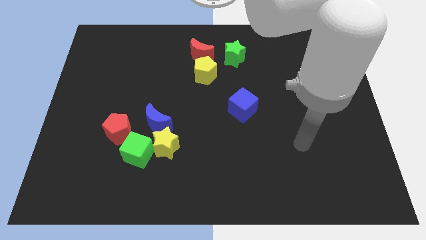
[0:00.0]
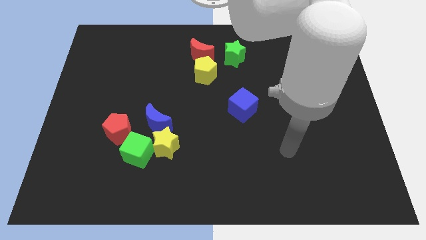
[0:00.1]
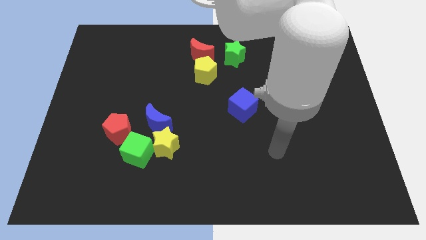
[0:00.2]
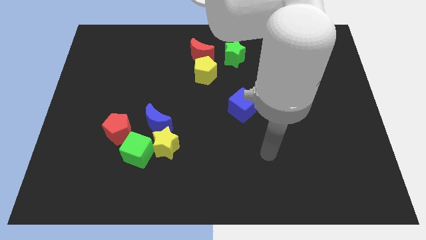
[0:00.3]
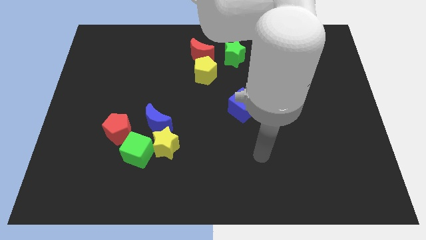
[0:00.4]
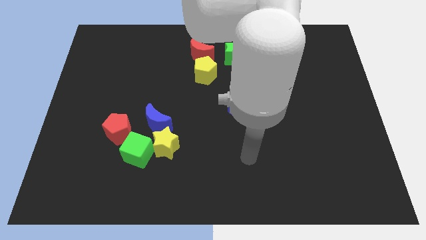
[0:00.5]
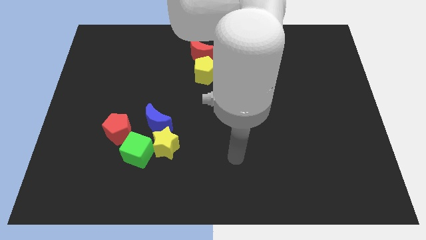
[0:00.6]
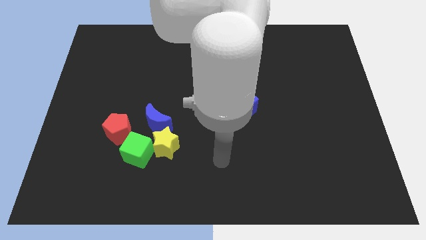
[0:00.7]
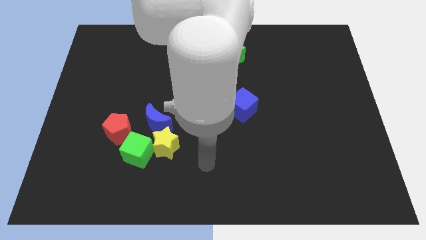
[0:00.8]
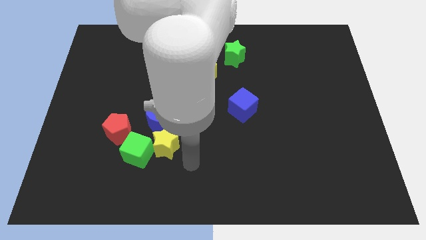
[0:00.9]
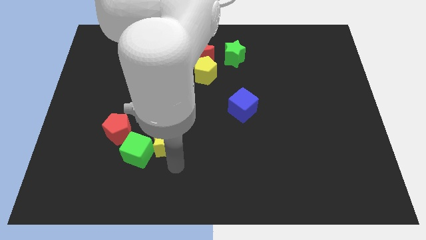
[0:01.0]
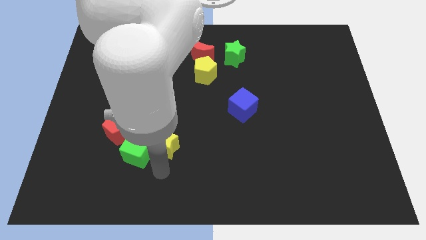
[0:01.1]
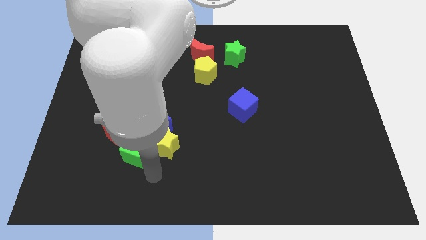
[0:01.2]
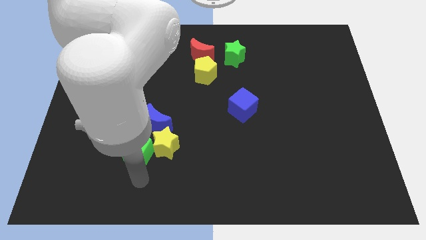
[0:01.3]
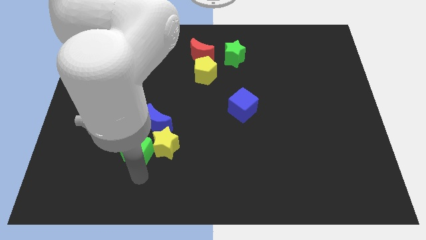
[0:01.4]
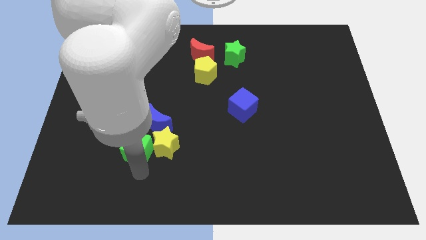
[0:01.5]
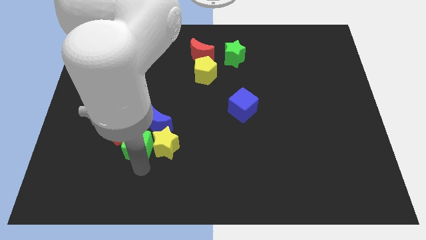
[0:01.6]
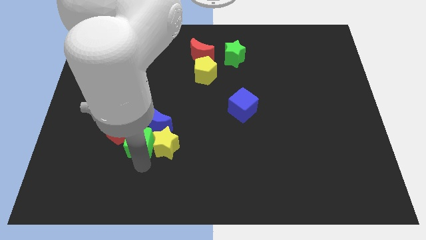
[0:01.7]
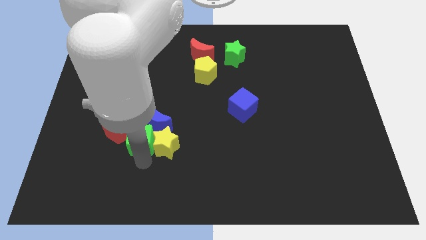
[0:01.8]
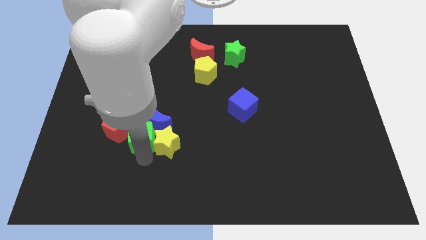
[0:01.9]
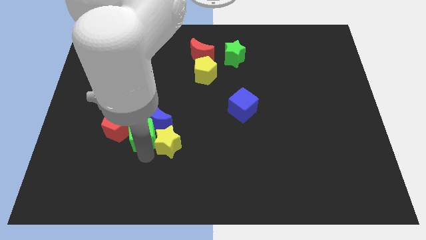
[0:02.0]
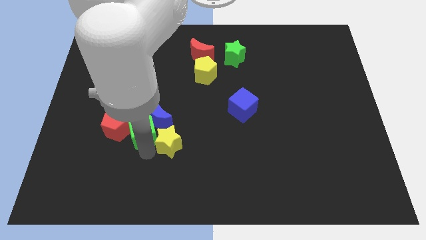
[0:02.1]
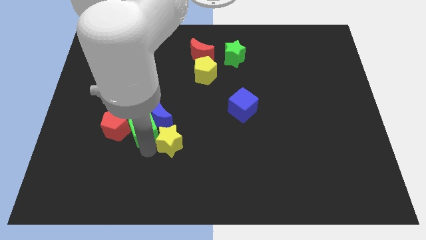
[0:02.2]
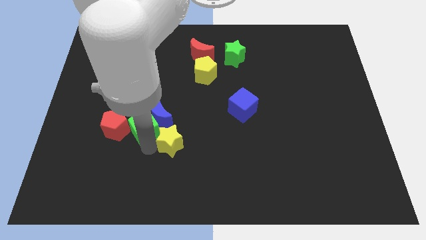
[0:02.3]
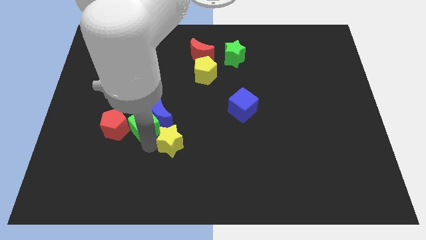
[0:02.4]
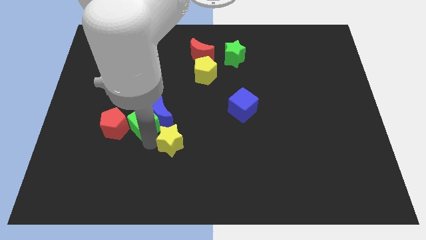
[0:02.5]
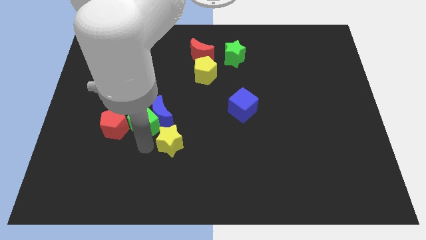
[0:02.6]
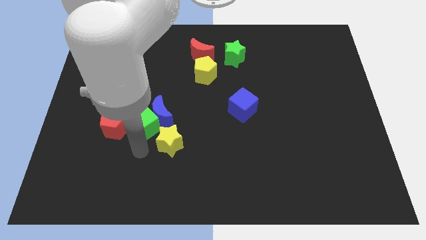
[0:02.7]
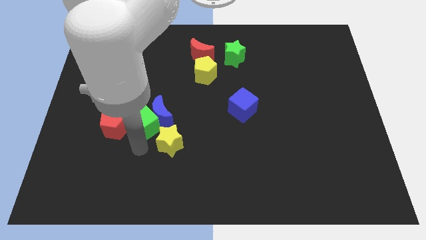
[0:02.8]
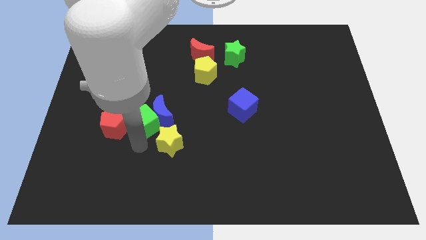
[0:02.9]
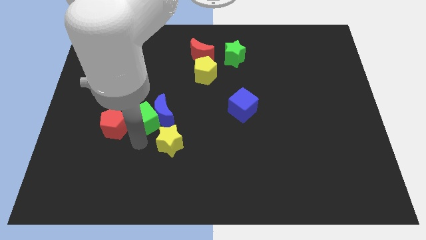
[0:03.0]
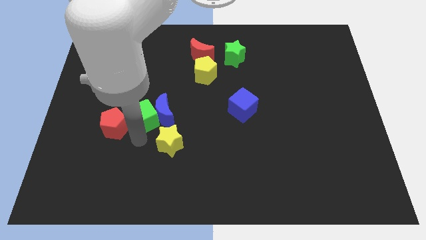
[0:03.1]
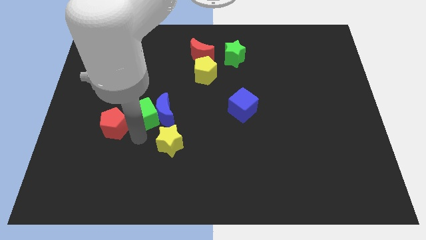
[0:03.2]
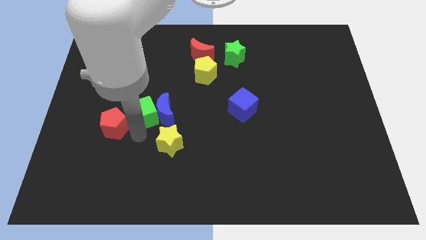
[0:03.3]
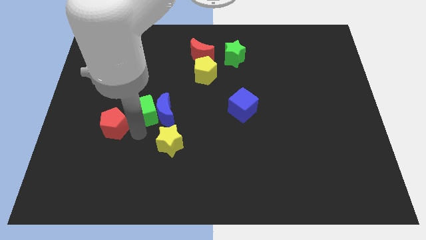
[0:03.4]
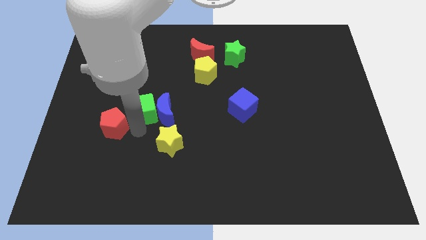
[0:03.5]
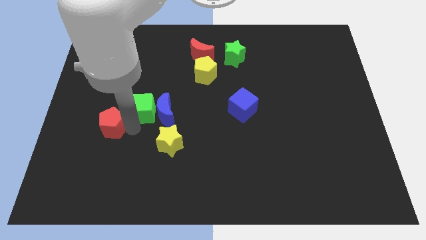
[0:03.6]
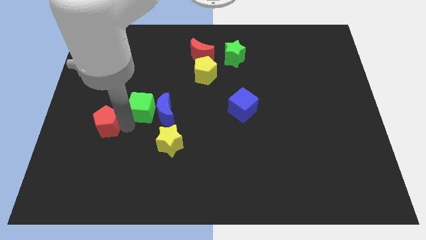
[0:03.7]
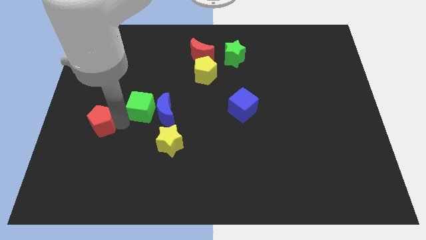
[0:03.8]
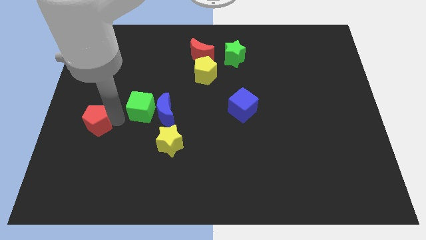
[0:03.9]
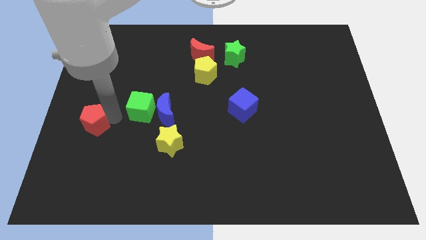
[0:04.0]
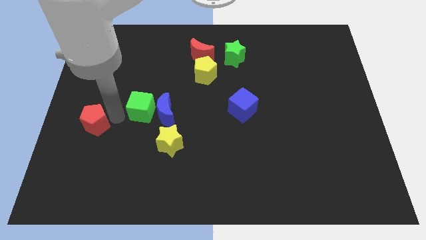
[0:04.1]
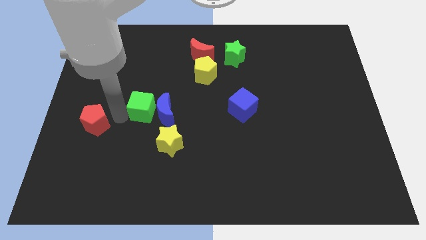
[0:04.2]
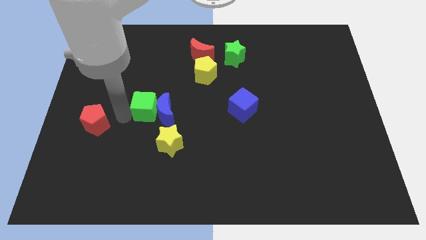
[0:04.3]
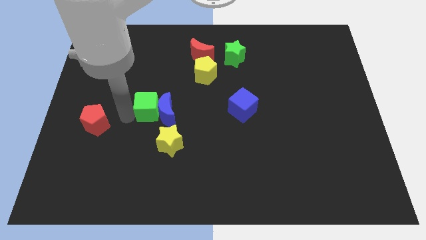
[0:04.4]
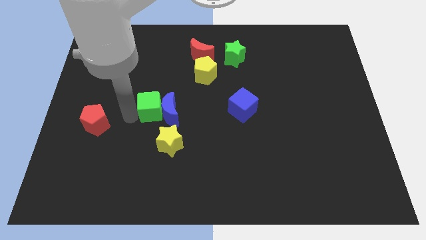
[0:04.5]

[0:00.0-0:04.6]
slightly push the green cube up and then to the right

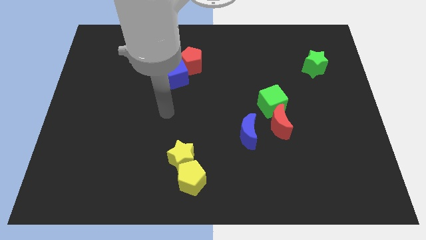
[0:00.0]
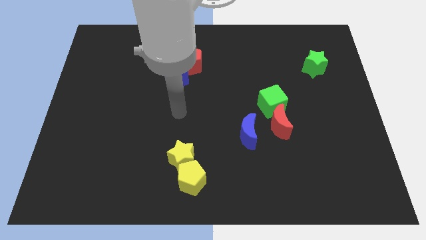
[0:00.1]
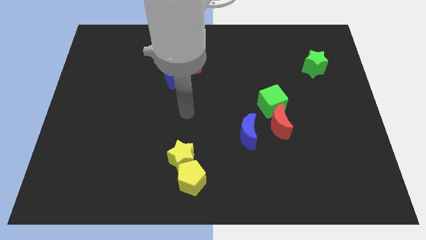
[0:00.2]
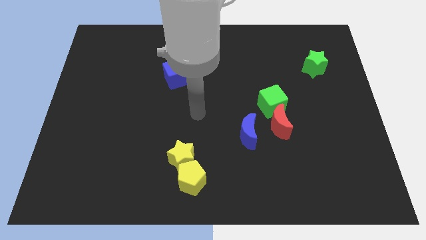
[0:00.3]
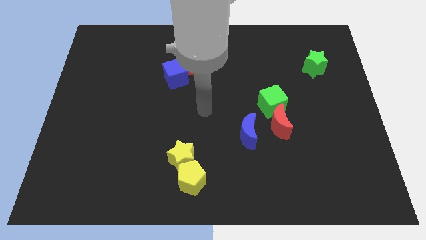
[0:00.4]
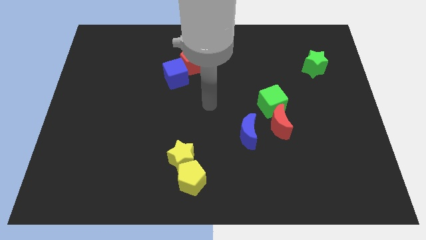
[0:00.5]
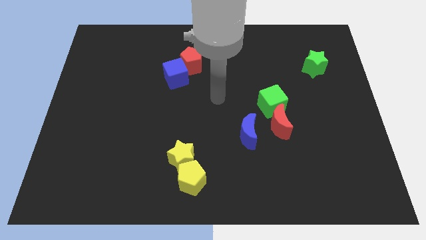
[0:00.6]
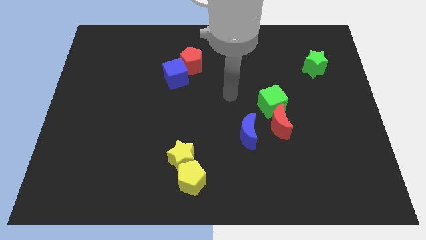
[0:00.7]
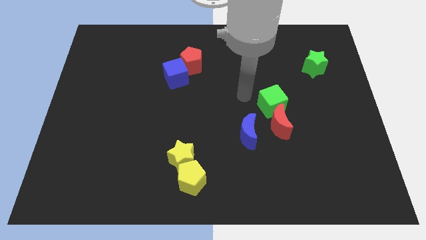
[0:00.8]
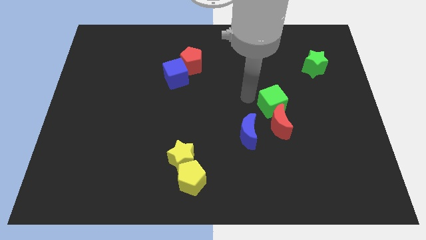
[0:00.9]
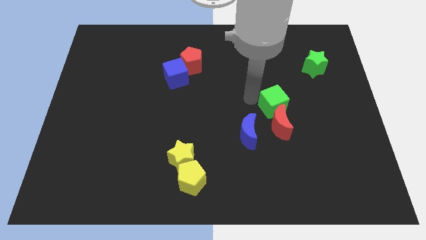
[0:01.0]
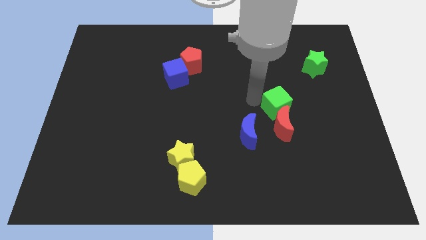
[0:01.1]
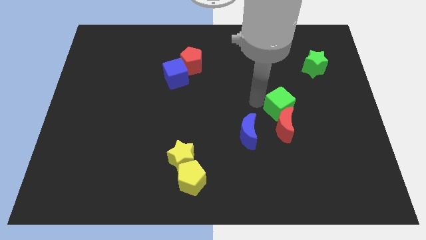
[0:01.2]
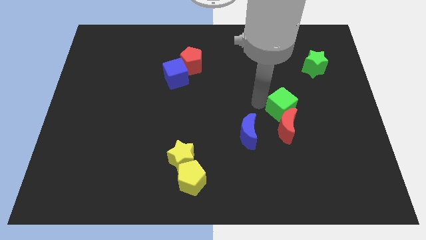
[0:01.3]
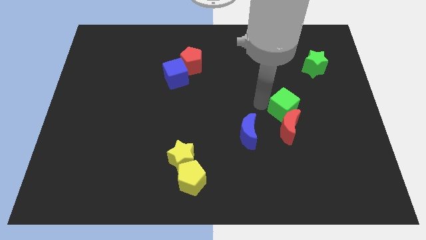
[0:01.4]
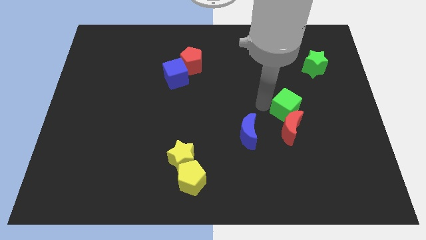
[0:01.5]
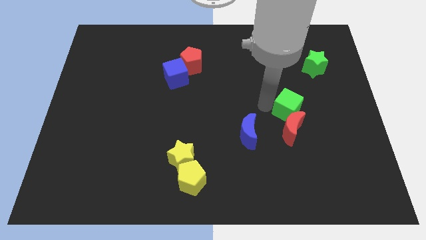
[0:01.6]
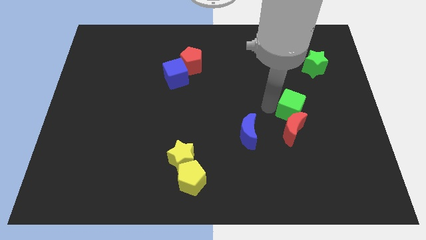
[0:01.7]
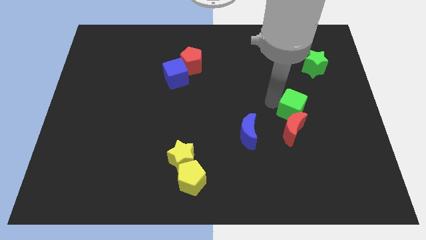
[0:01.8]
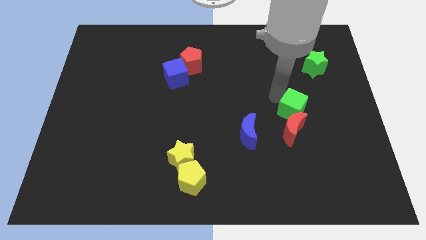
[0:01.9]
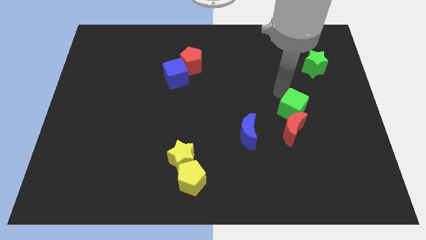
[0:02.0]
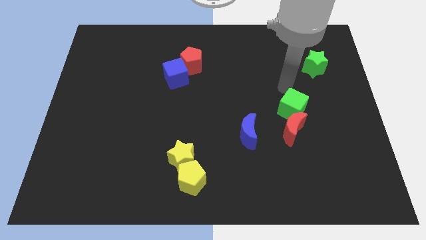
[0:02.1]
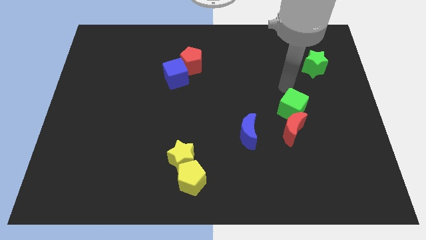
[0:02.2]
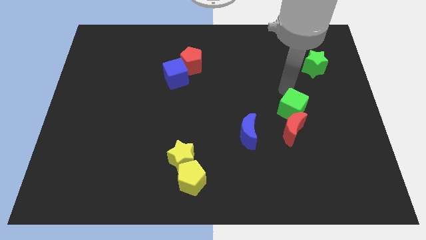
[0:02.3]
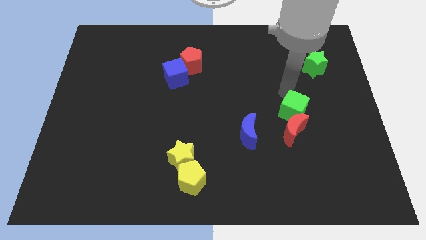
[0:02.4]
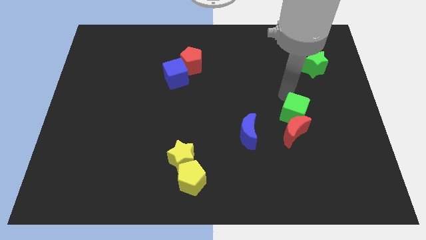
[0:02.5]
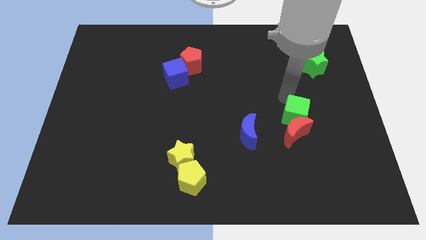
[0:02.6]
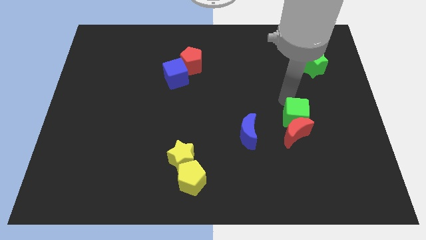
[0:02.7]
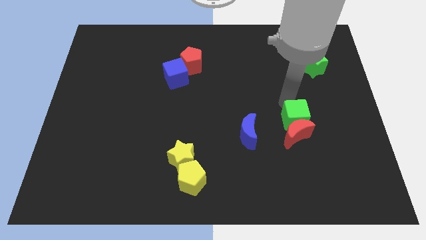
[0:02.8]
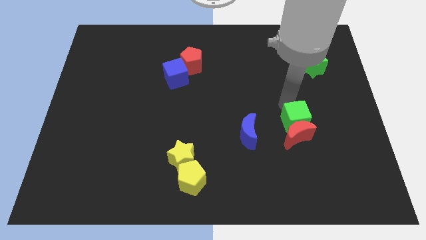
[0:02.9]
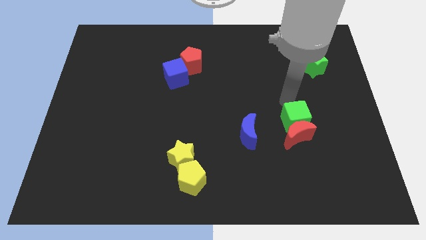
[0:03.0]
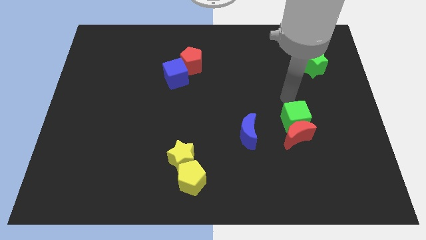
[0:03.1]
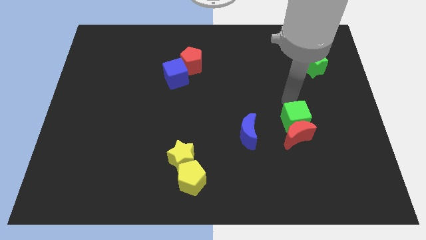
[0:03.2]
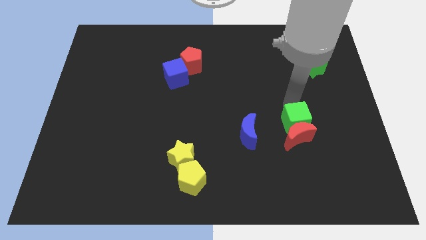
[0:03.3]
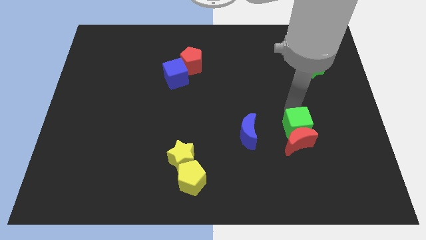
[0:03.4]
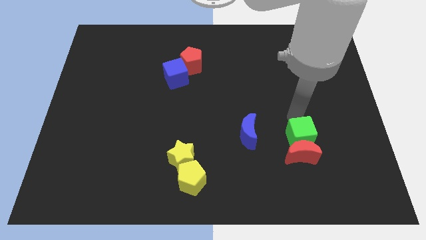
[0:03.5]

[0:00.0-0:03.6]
slightly slide the green cube down
